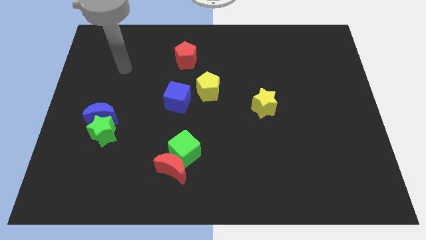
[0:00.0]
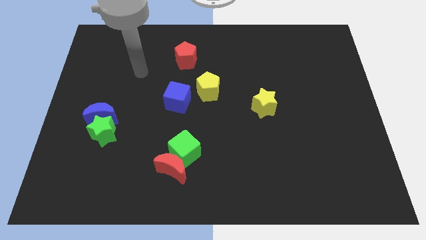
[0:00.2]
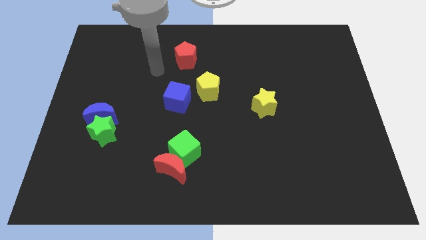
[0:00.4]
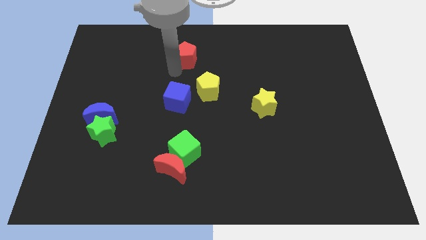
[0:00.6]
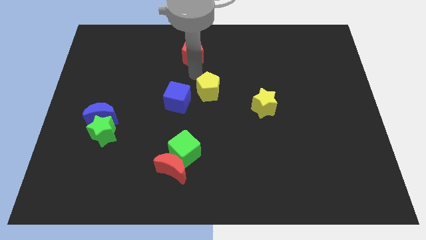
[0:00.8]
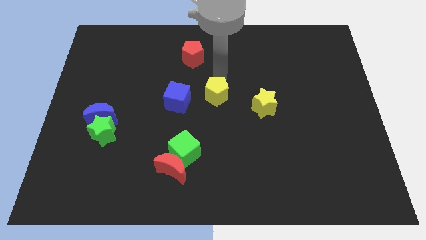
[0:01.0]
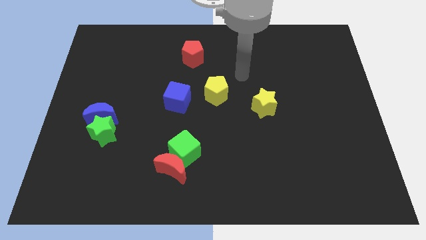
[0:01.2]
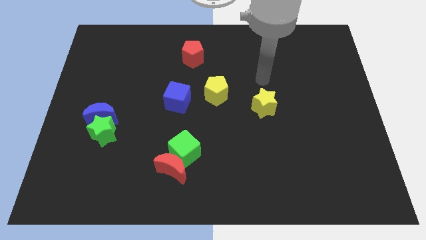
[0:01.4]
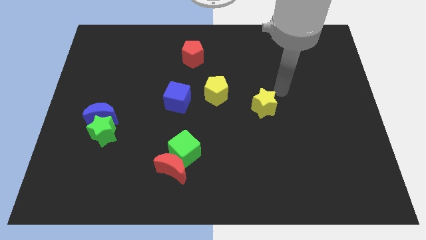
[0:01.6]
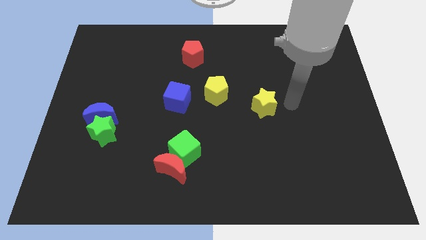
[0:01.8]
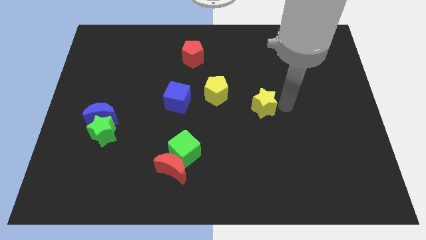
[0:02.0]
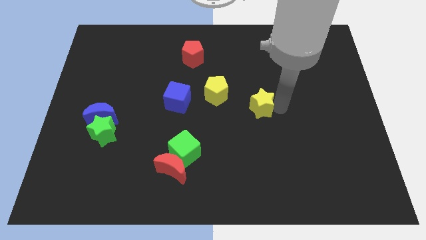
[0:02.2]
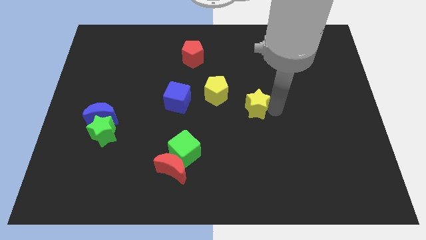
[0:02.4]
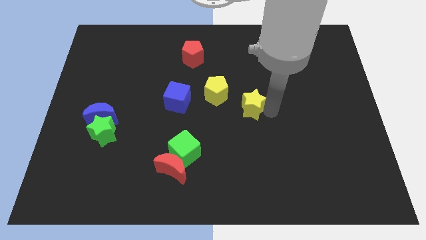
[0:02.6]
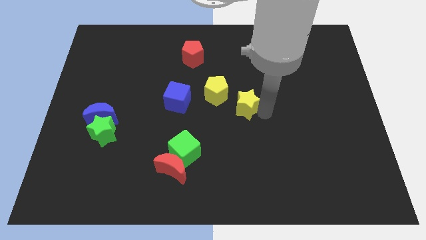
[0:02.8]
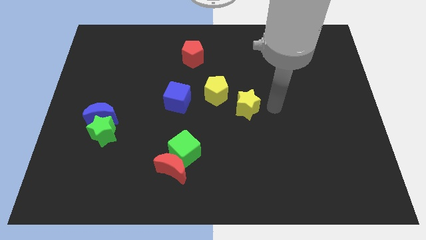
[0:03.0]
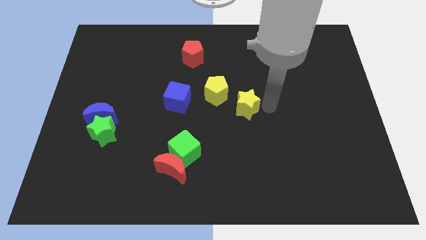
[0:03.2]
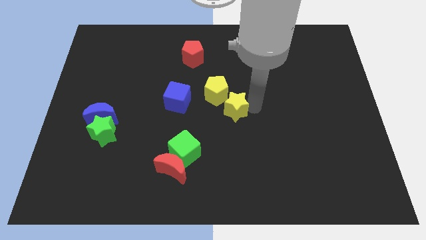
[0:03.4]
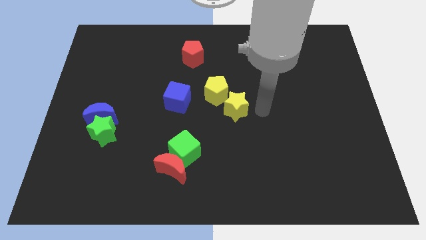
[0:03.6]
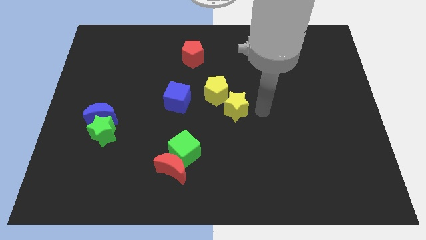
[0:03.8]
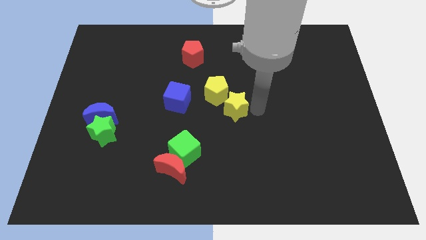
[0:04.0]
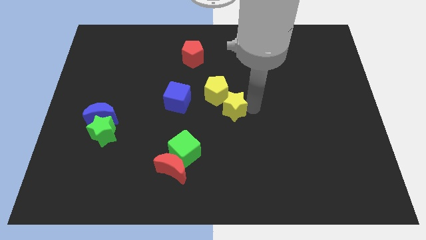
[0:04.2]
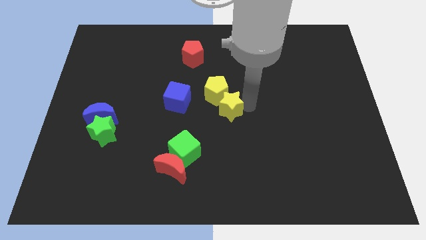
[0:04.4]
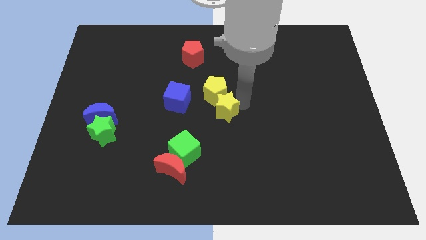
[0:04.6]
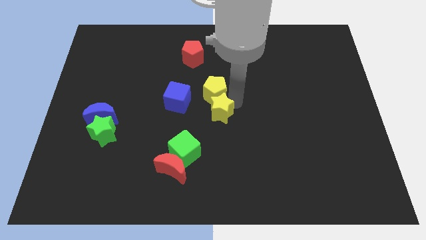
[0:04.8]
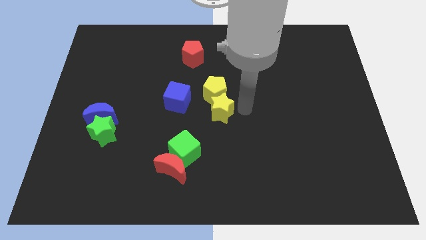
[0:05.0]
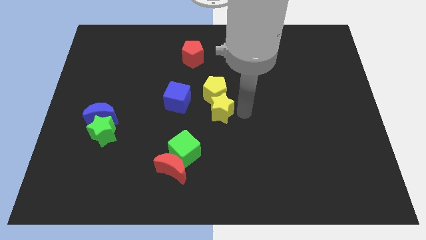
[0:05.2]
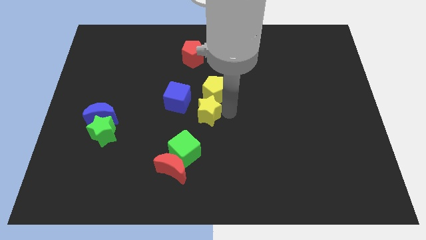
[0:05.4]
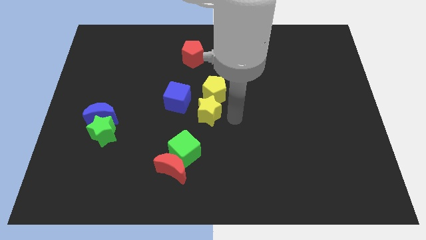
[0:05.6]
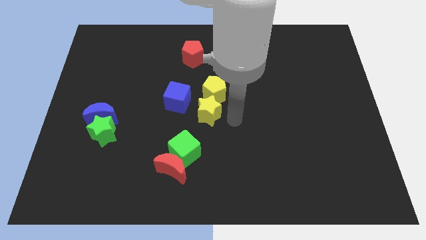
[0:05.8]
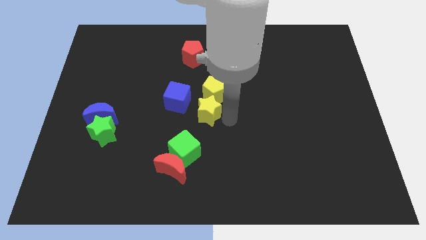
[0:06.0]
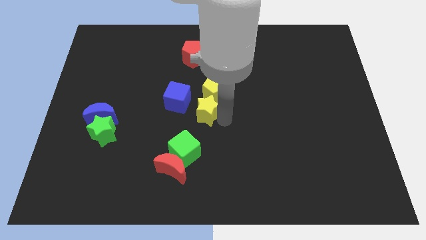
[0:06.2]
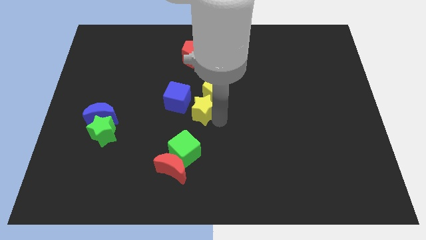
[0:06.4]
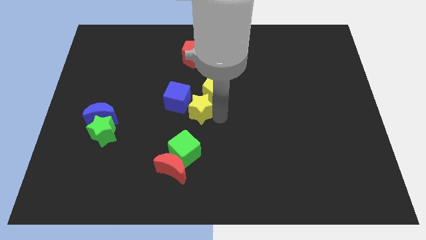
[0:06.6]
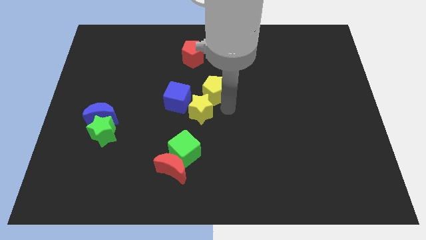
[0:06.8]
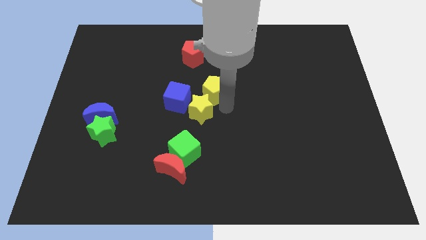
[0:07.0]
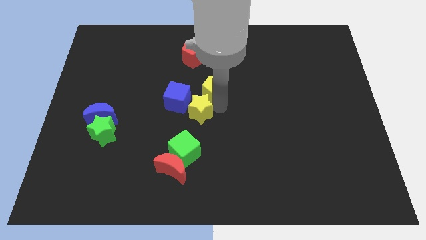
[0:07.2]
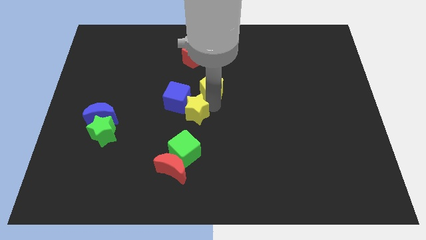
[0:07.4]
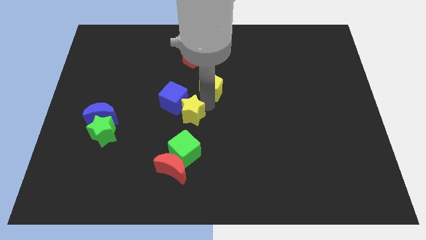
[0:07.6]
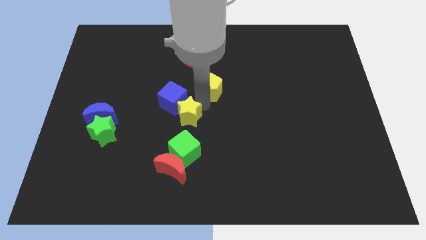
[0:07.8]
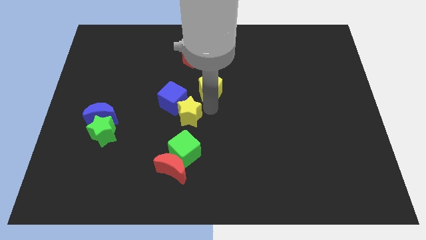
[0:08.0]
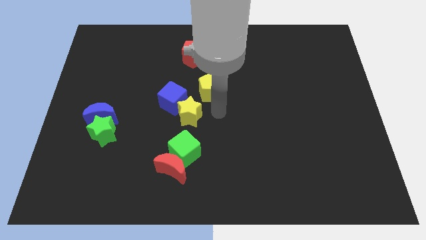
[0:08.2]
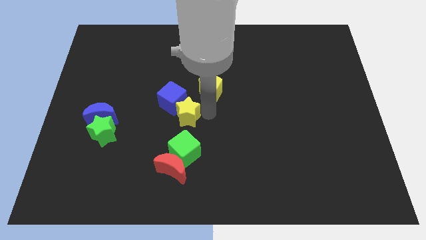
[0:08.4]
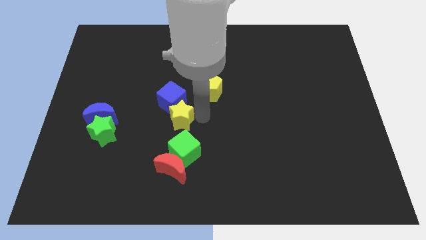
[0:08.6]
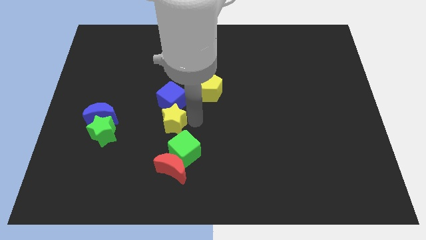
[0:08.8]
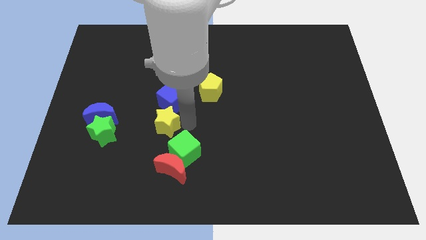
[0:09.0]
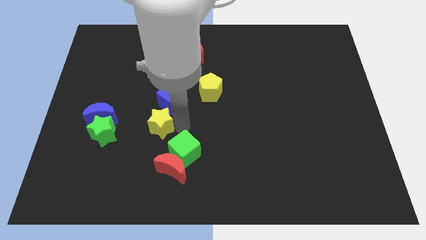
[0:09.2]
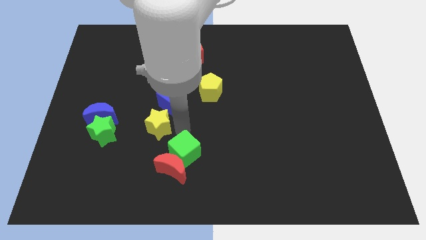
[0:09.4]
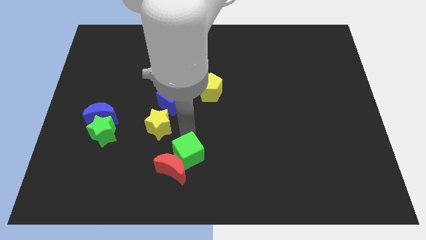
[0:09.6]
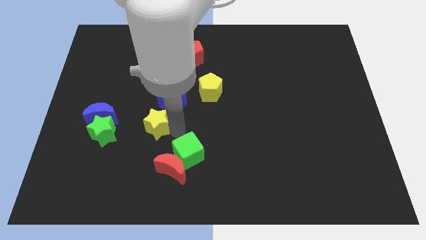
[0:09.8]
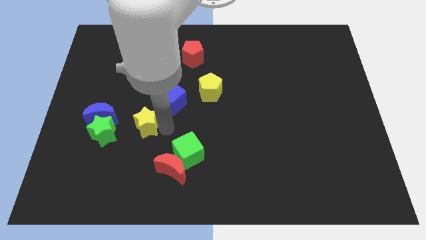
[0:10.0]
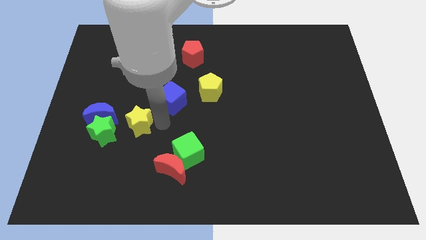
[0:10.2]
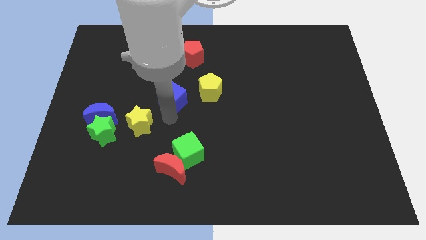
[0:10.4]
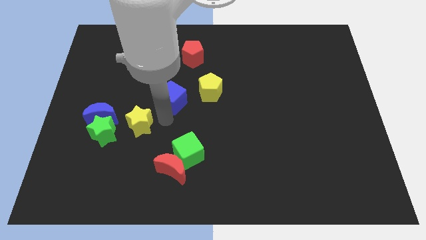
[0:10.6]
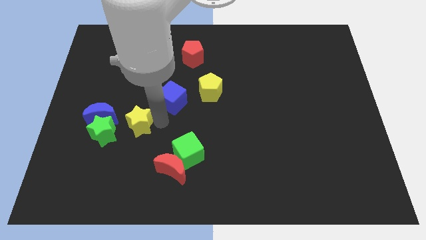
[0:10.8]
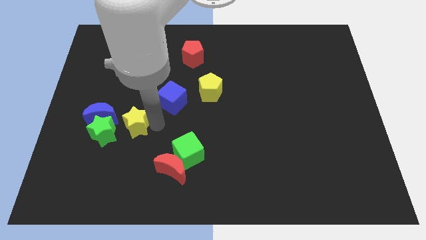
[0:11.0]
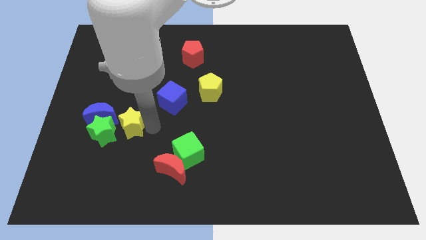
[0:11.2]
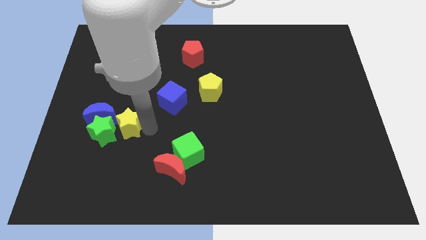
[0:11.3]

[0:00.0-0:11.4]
slide the yellow star to the green star

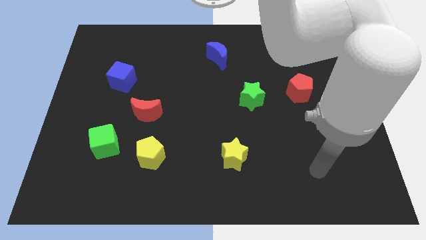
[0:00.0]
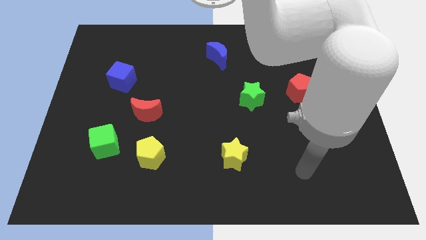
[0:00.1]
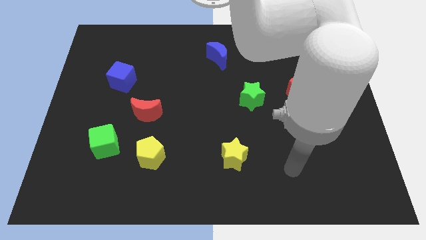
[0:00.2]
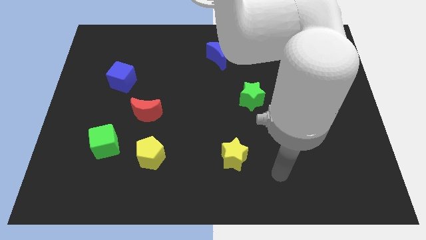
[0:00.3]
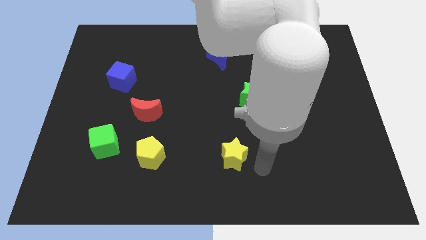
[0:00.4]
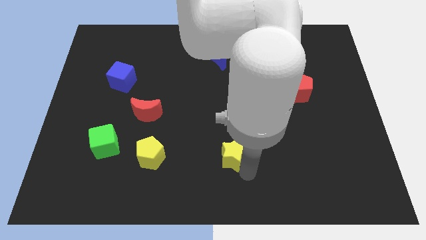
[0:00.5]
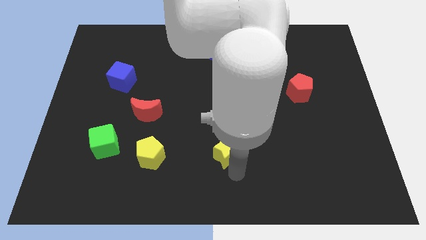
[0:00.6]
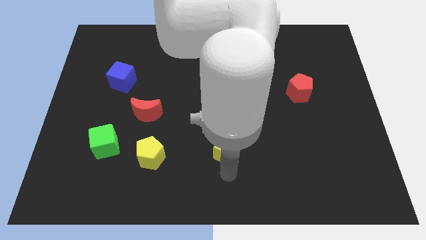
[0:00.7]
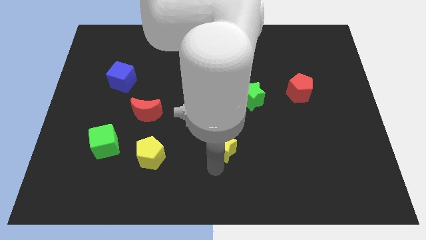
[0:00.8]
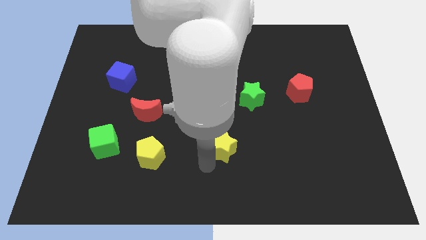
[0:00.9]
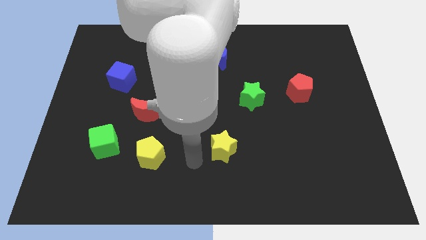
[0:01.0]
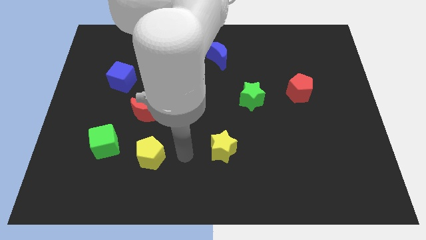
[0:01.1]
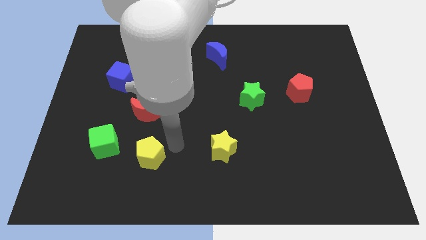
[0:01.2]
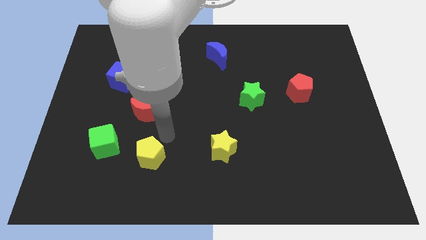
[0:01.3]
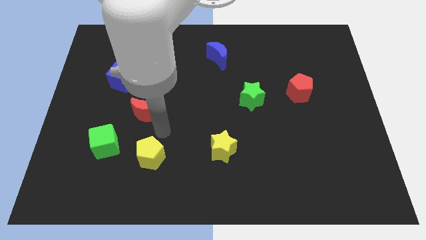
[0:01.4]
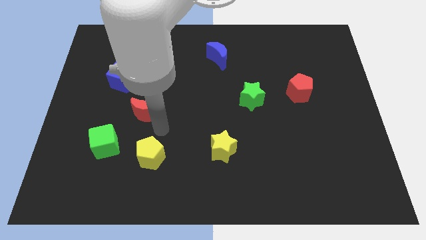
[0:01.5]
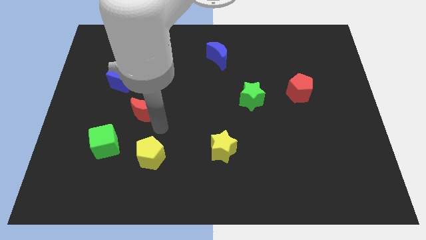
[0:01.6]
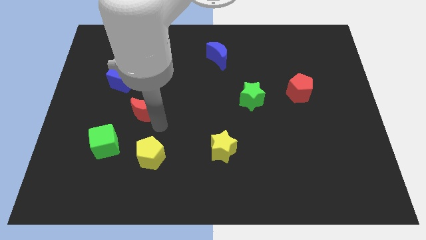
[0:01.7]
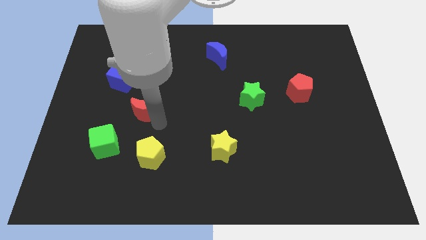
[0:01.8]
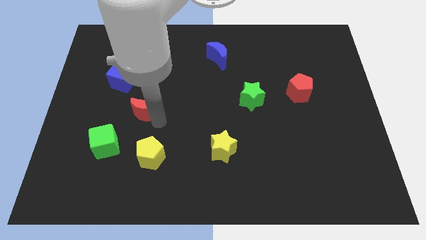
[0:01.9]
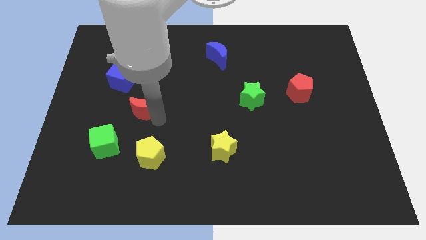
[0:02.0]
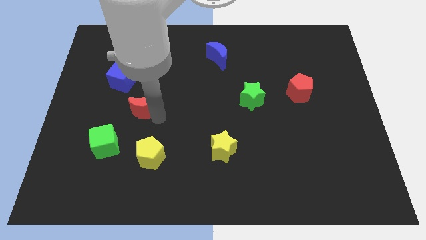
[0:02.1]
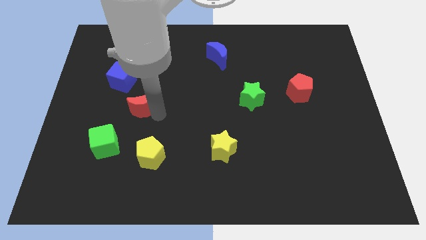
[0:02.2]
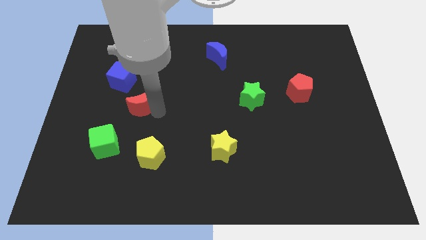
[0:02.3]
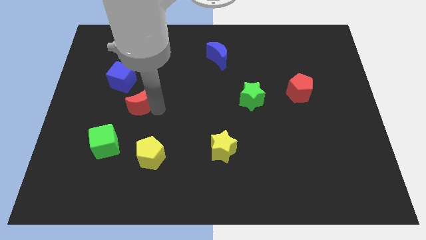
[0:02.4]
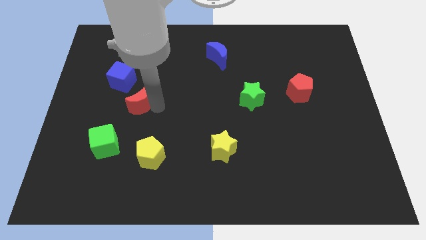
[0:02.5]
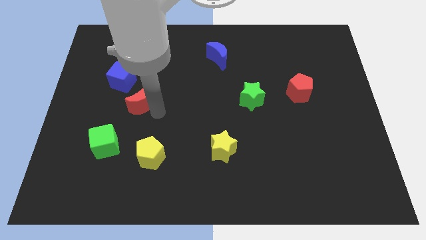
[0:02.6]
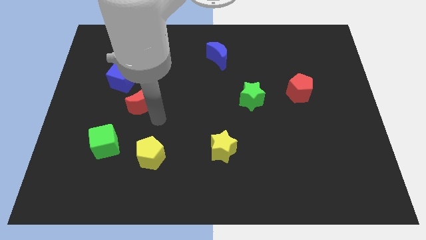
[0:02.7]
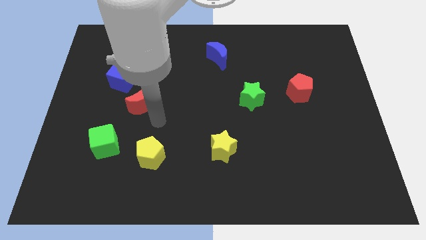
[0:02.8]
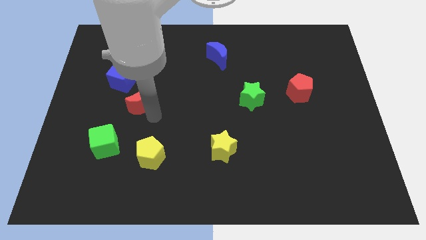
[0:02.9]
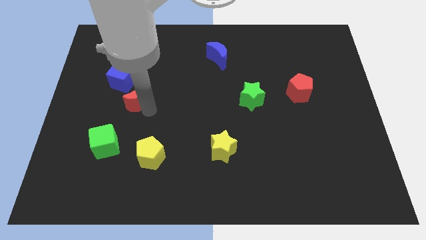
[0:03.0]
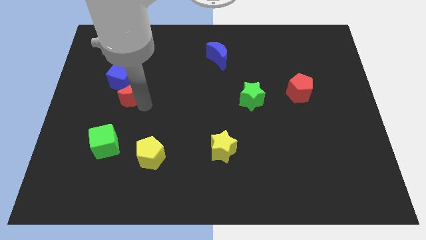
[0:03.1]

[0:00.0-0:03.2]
slide the red moon close to the blue cube
